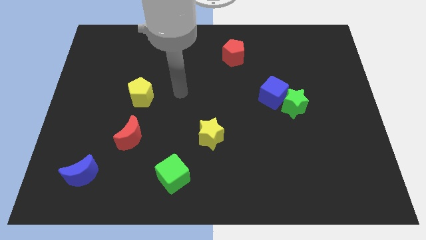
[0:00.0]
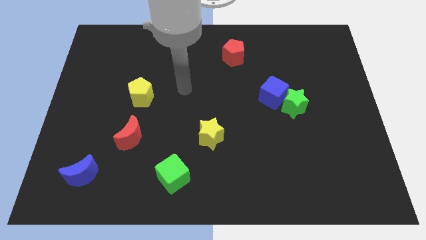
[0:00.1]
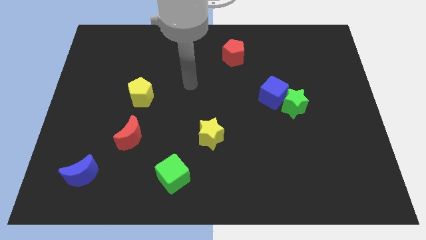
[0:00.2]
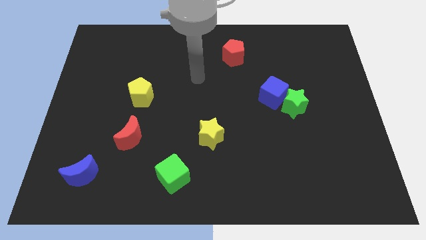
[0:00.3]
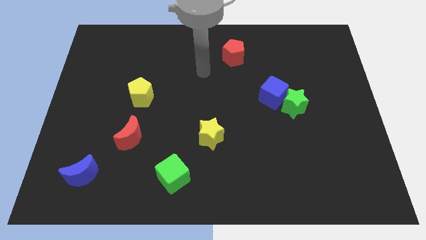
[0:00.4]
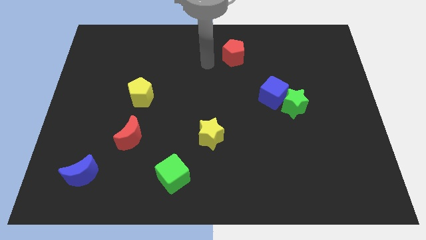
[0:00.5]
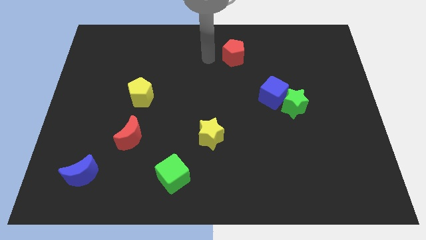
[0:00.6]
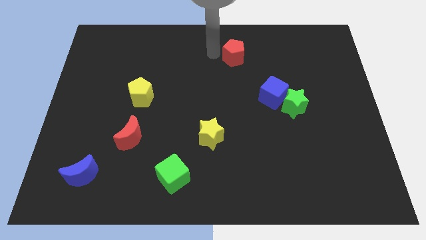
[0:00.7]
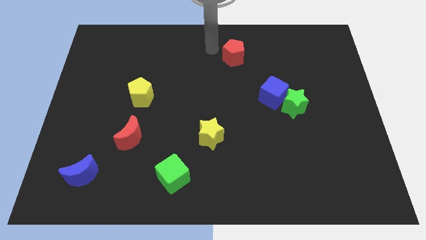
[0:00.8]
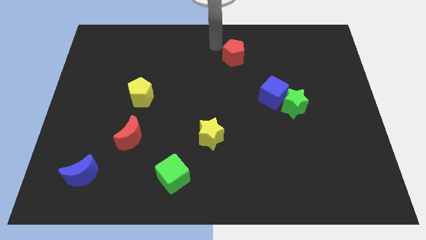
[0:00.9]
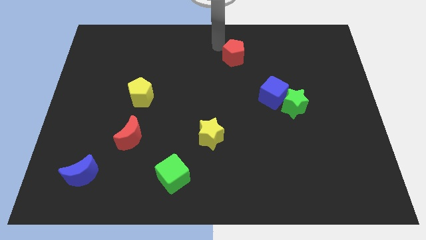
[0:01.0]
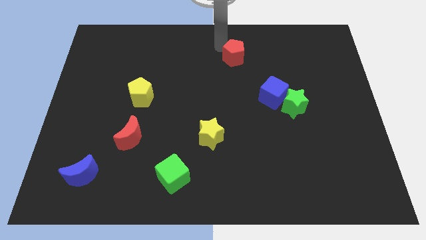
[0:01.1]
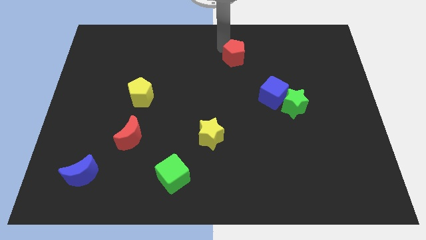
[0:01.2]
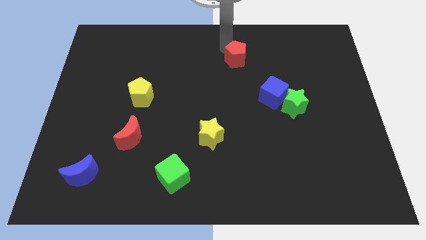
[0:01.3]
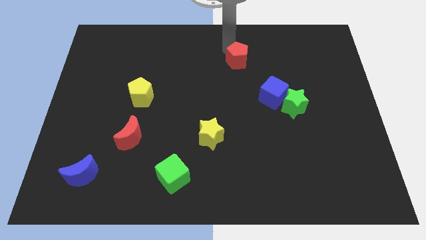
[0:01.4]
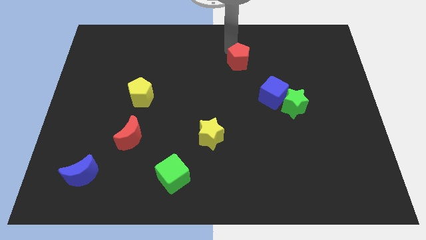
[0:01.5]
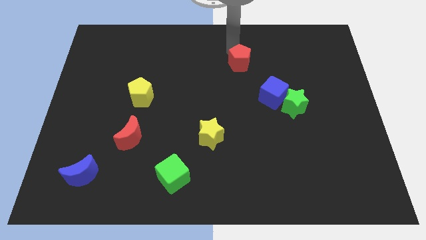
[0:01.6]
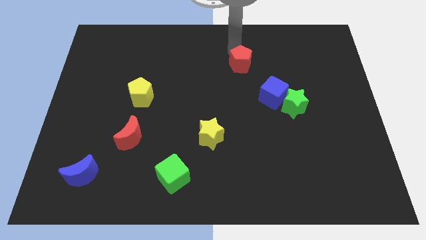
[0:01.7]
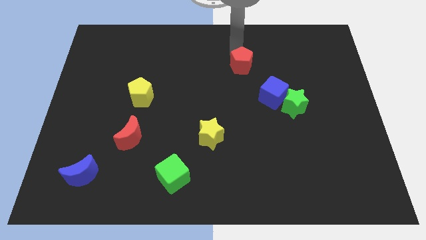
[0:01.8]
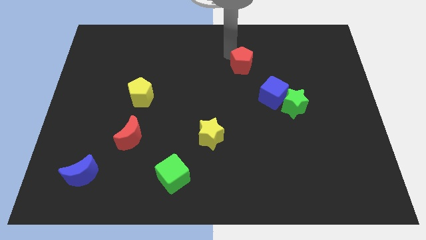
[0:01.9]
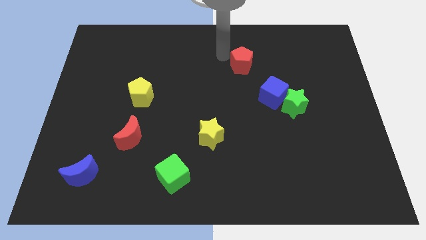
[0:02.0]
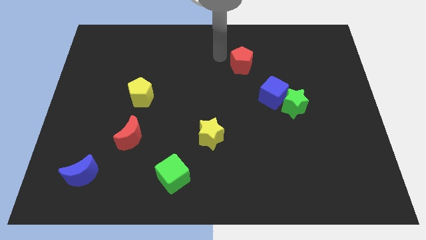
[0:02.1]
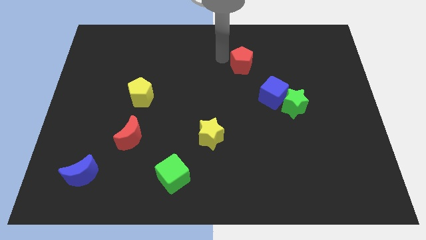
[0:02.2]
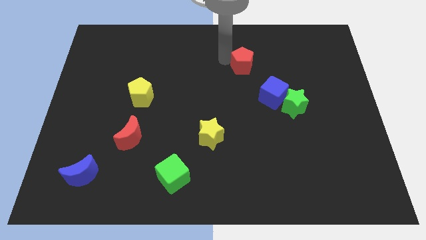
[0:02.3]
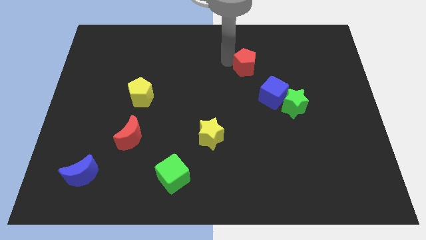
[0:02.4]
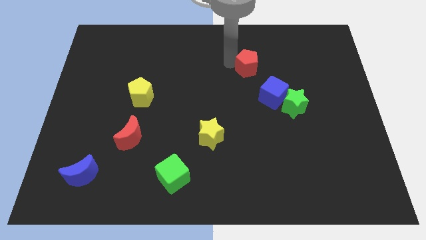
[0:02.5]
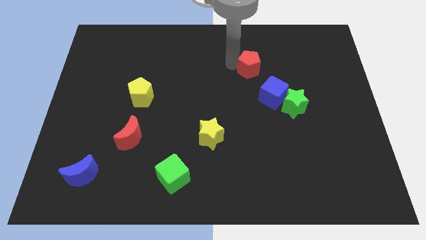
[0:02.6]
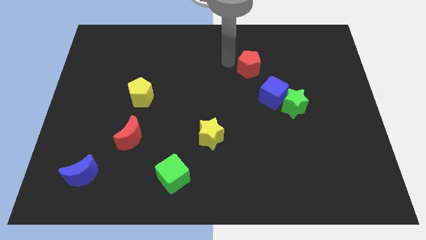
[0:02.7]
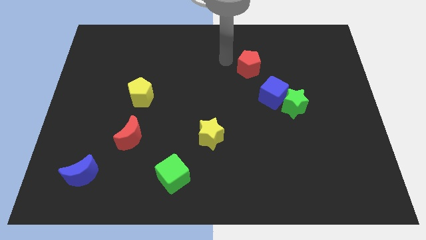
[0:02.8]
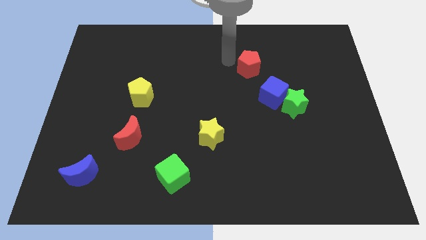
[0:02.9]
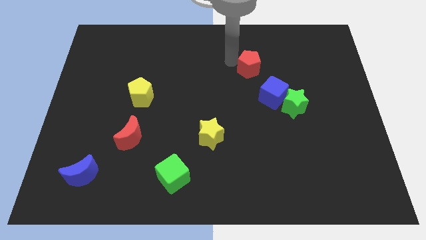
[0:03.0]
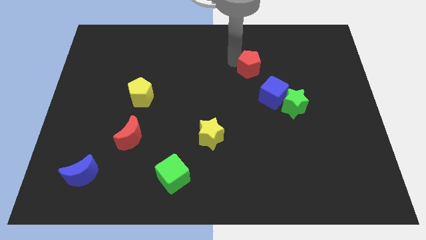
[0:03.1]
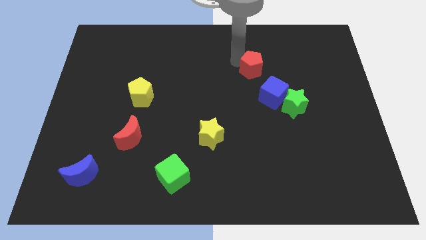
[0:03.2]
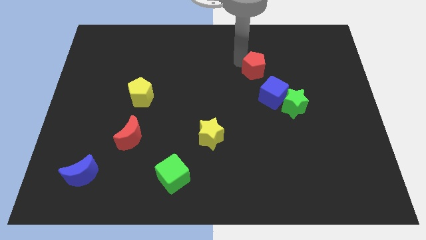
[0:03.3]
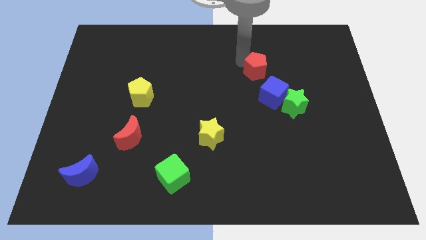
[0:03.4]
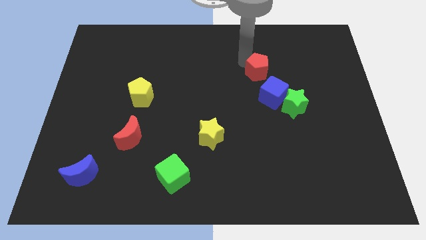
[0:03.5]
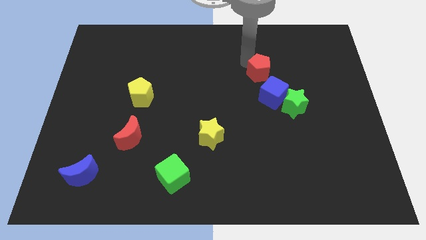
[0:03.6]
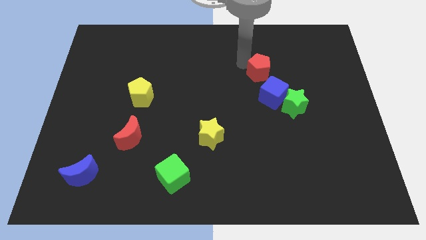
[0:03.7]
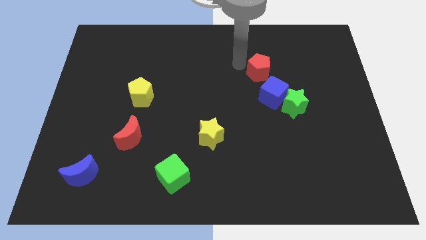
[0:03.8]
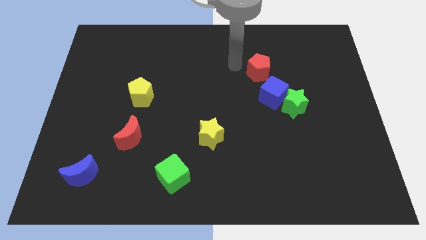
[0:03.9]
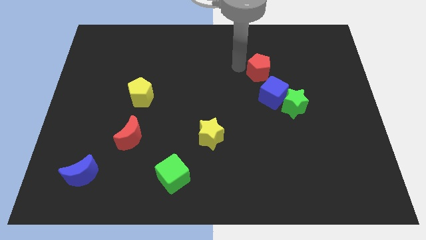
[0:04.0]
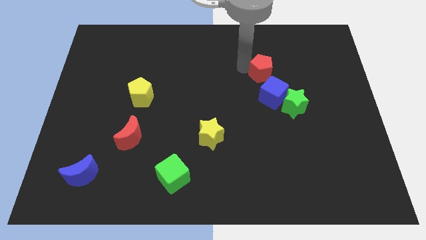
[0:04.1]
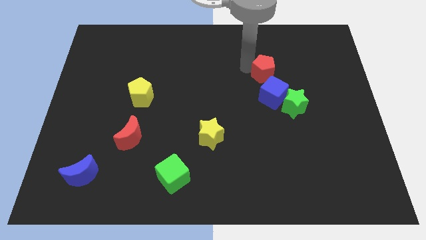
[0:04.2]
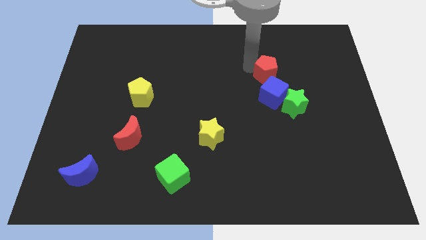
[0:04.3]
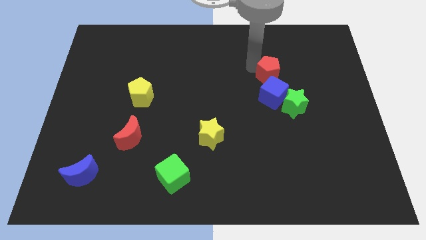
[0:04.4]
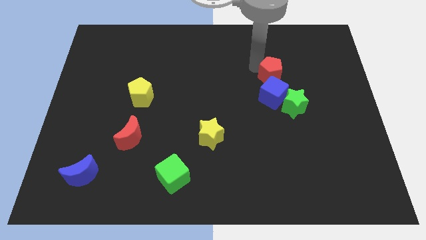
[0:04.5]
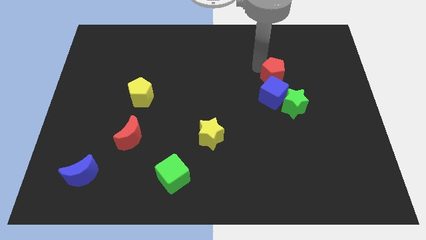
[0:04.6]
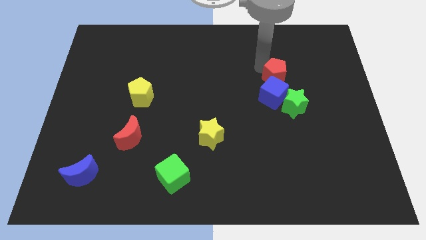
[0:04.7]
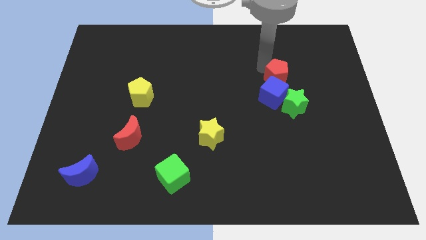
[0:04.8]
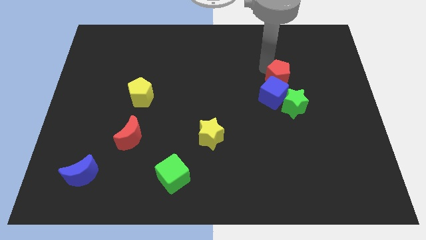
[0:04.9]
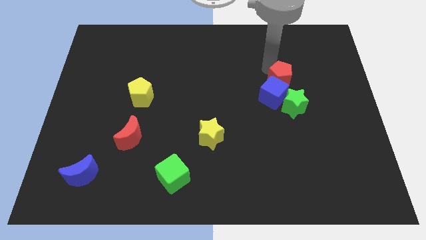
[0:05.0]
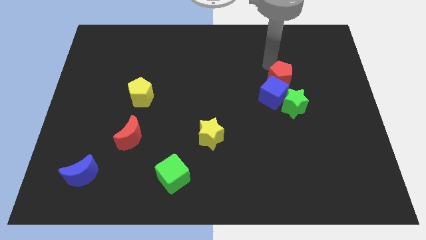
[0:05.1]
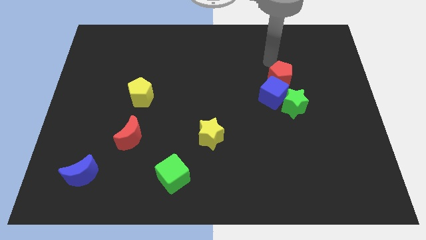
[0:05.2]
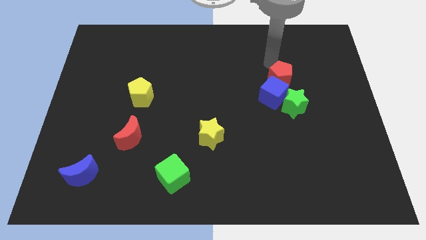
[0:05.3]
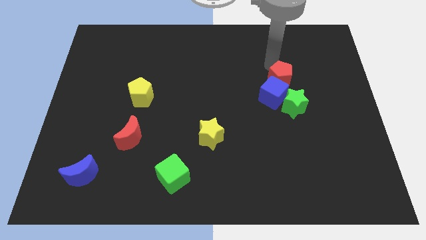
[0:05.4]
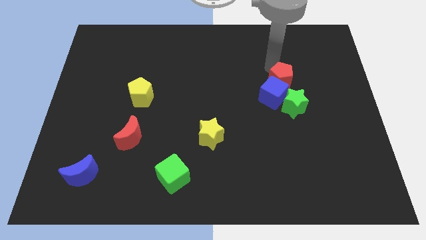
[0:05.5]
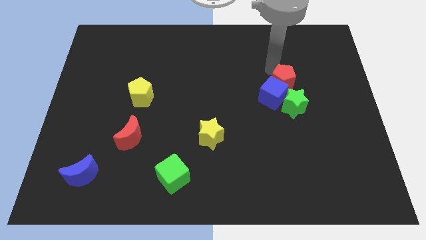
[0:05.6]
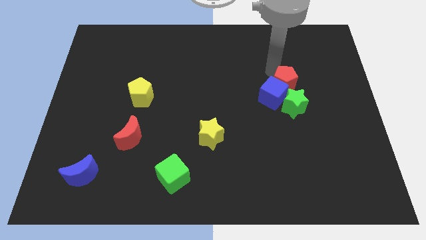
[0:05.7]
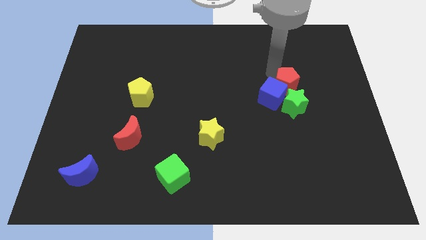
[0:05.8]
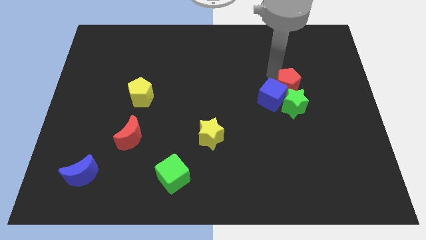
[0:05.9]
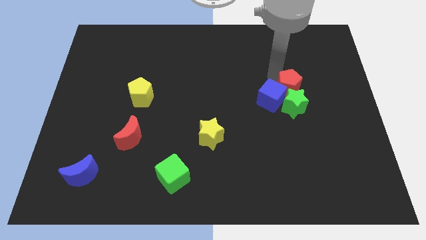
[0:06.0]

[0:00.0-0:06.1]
move the red pentagon to the green star
